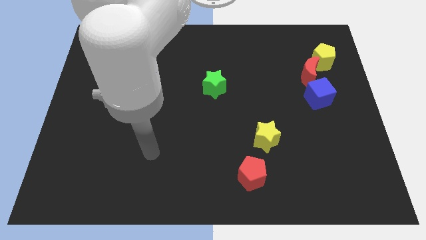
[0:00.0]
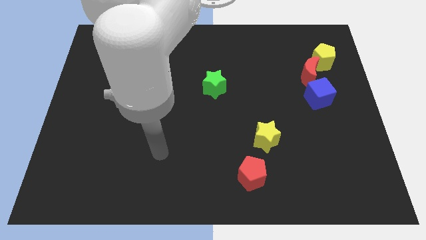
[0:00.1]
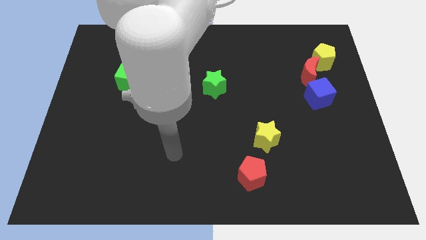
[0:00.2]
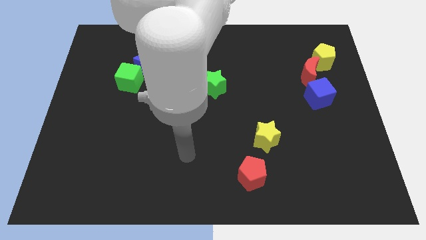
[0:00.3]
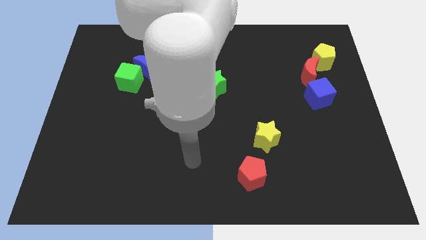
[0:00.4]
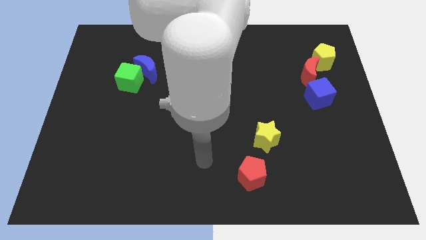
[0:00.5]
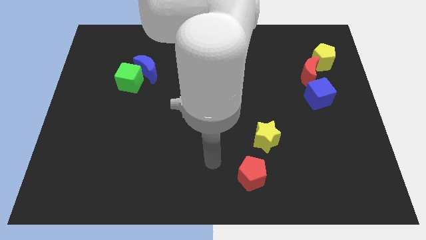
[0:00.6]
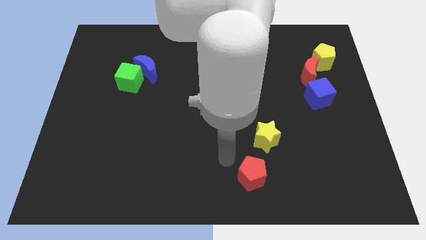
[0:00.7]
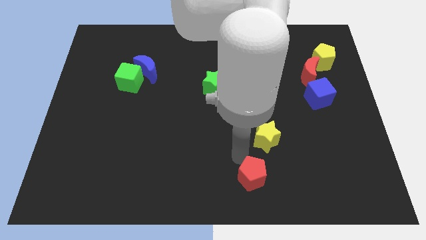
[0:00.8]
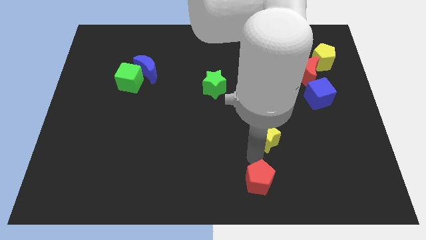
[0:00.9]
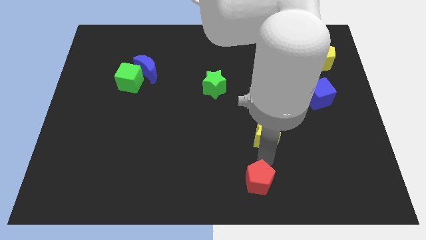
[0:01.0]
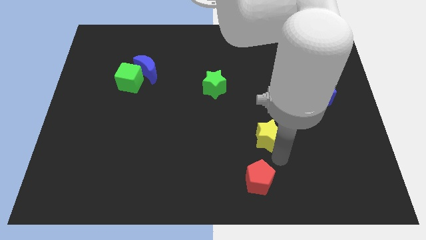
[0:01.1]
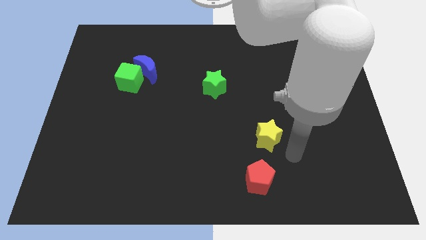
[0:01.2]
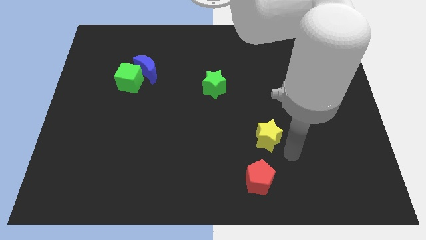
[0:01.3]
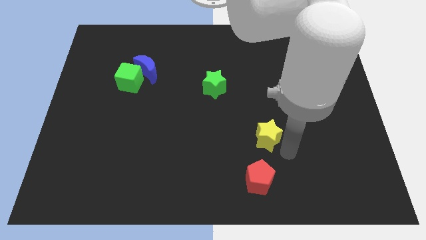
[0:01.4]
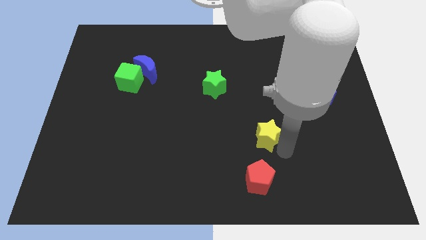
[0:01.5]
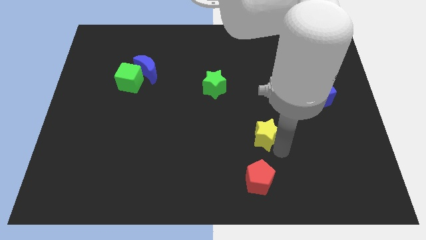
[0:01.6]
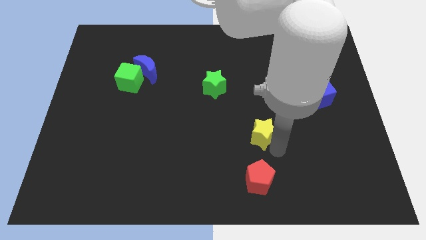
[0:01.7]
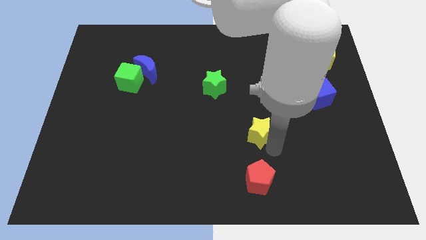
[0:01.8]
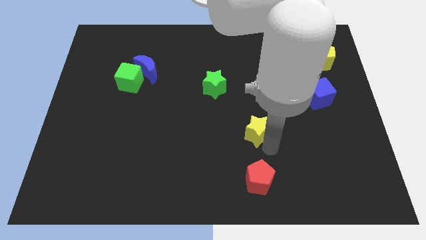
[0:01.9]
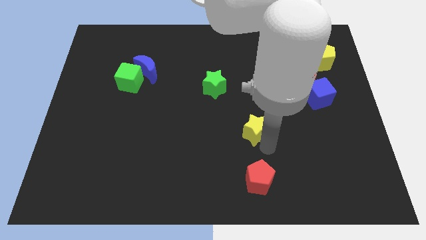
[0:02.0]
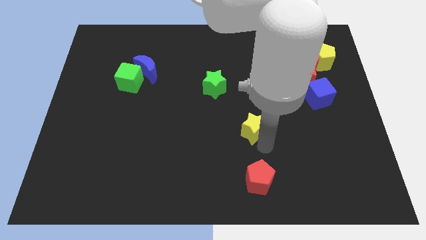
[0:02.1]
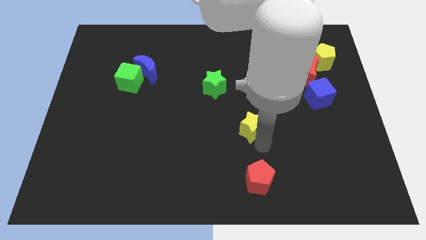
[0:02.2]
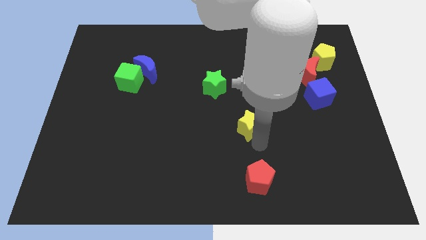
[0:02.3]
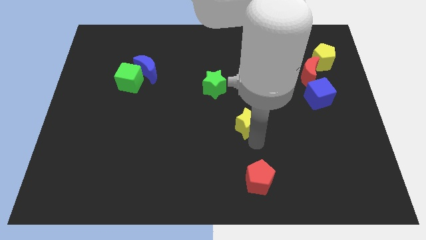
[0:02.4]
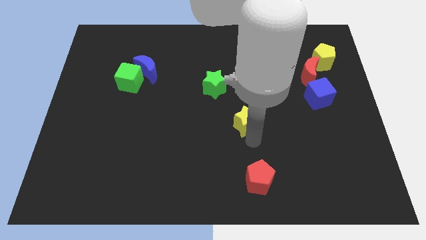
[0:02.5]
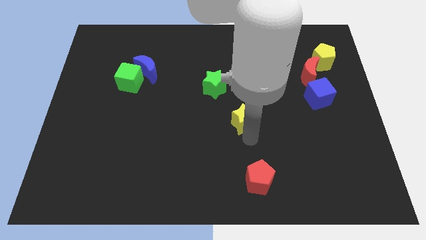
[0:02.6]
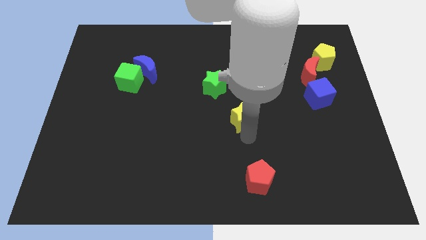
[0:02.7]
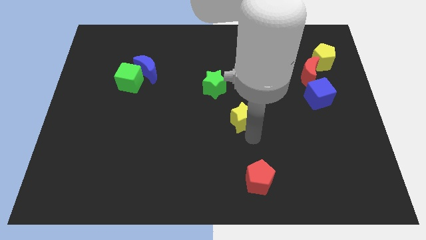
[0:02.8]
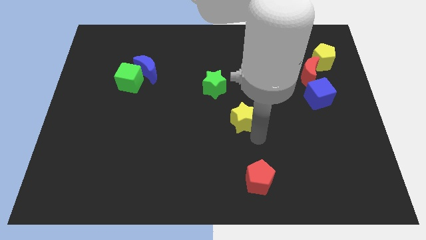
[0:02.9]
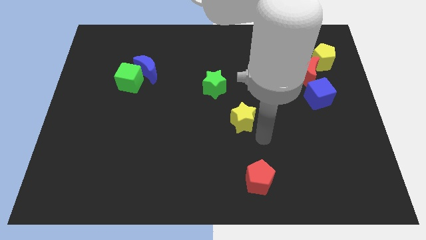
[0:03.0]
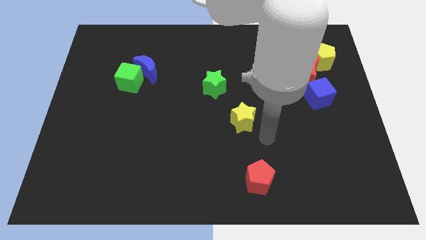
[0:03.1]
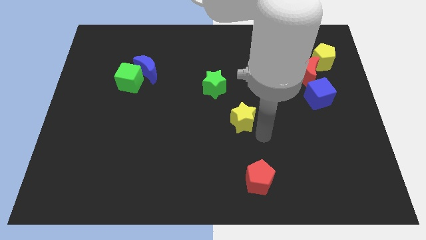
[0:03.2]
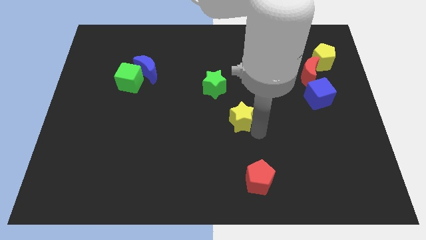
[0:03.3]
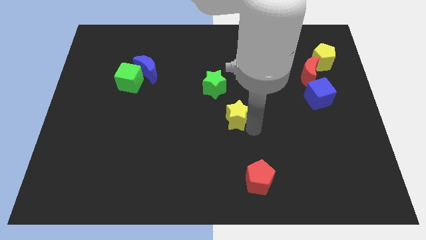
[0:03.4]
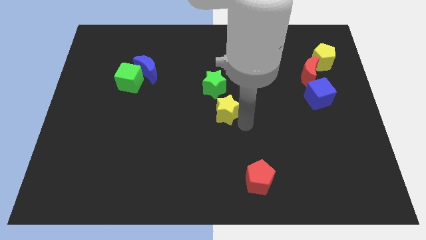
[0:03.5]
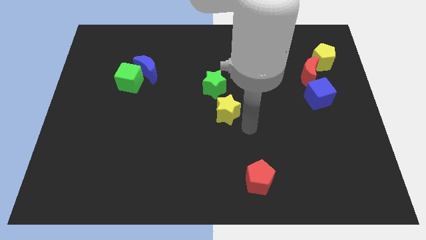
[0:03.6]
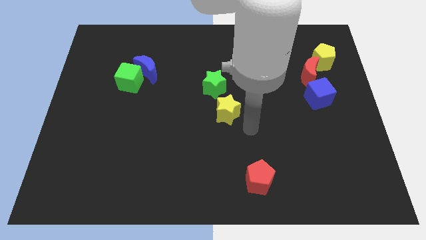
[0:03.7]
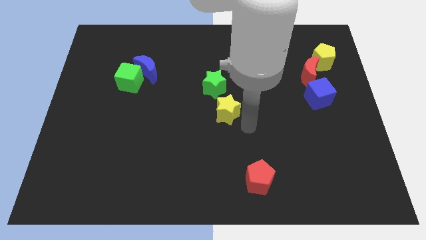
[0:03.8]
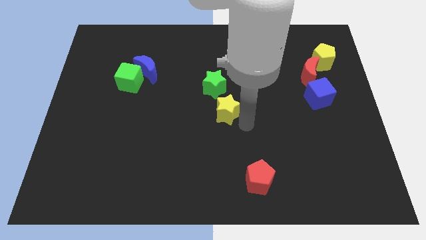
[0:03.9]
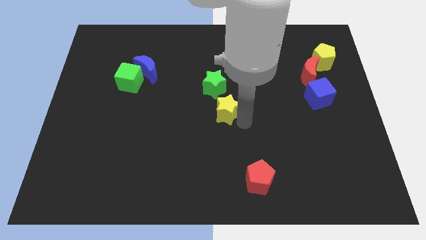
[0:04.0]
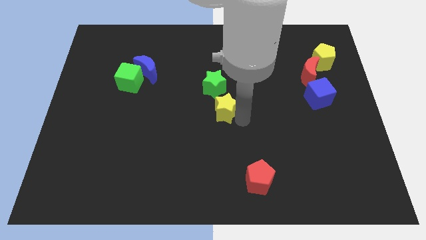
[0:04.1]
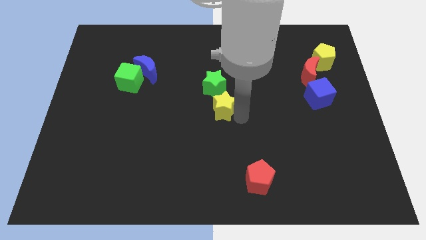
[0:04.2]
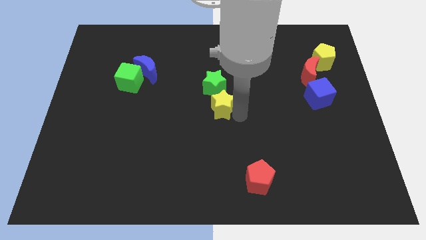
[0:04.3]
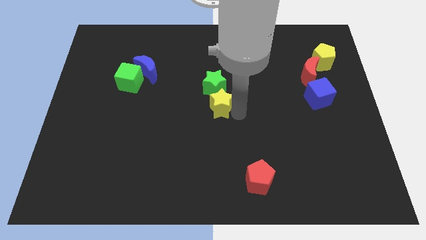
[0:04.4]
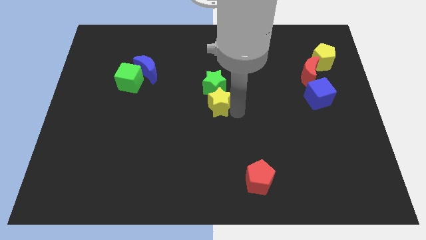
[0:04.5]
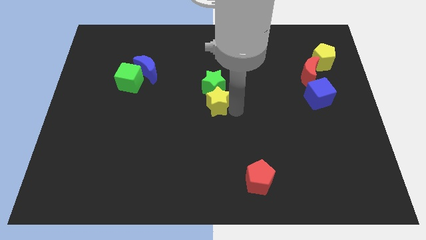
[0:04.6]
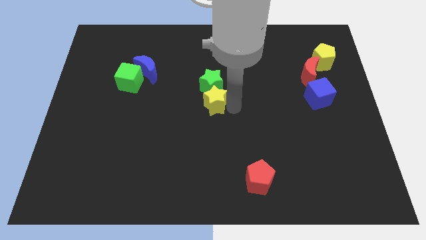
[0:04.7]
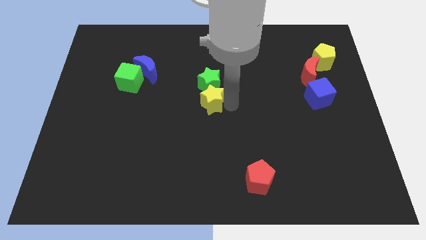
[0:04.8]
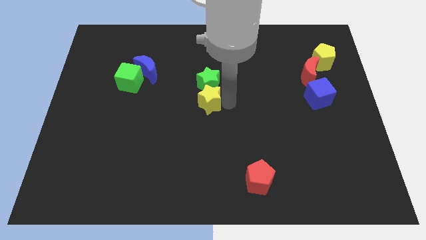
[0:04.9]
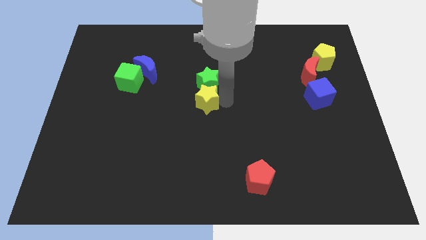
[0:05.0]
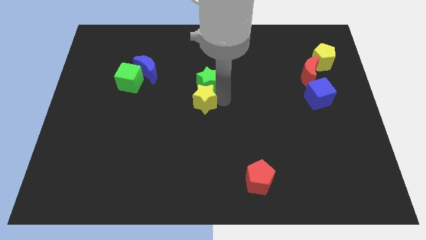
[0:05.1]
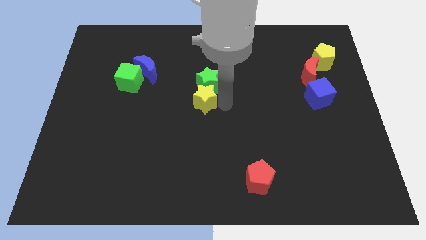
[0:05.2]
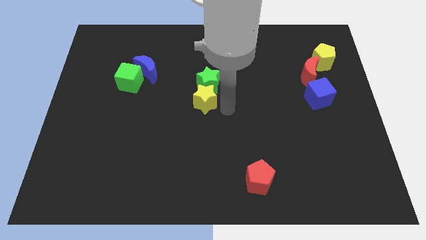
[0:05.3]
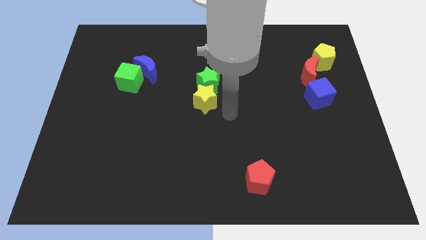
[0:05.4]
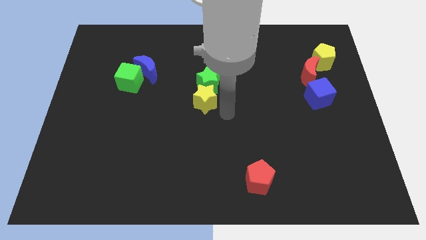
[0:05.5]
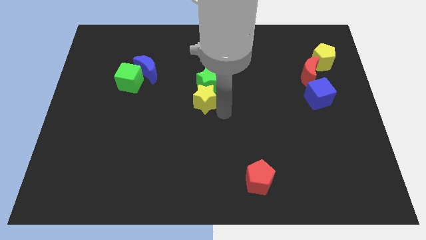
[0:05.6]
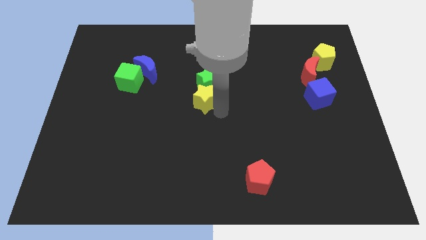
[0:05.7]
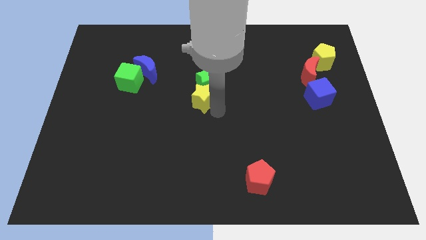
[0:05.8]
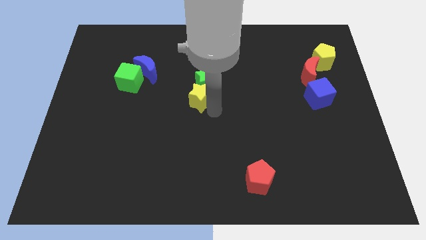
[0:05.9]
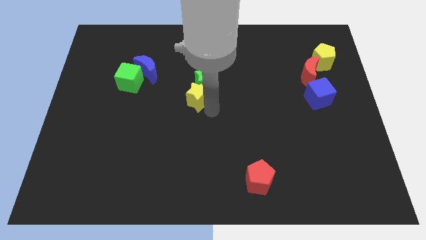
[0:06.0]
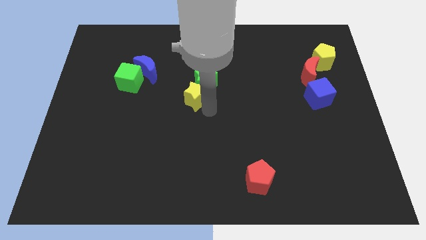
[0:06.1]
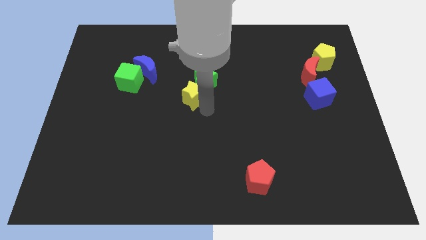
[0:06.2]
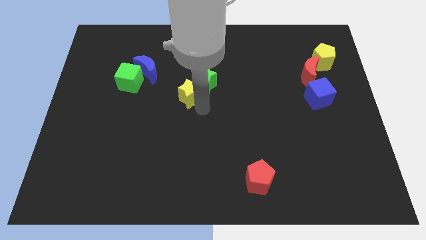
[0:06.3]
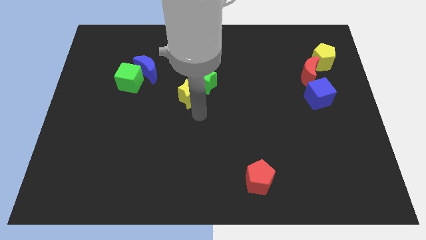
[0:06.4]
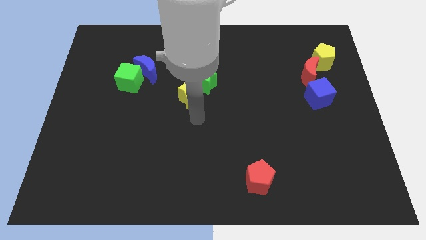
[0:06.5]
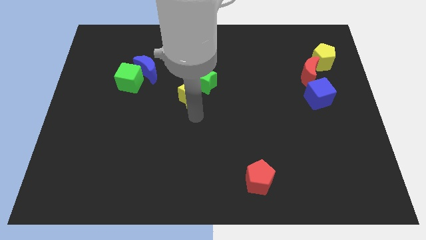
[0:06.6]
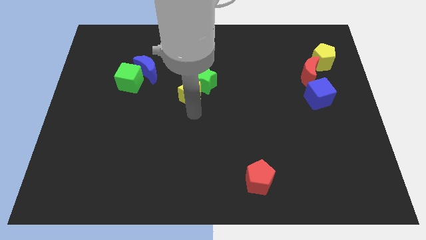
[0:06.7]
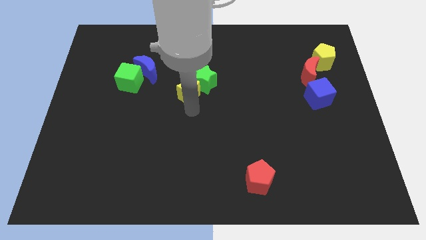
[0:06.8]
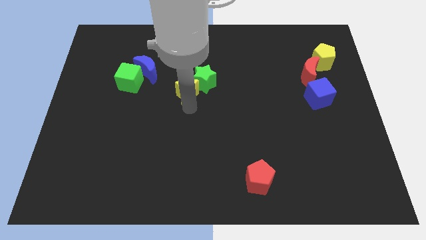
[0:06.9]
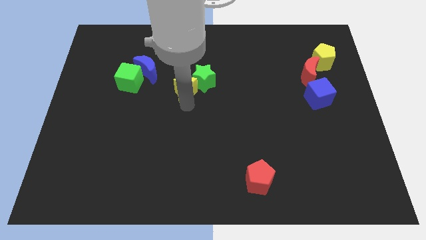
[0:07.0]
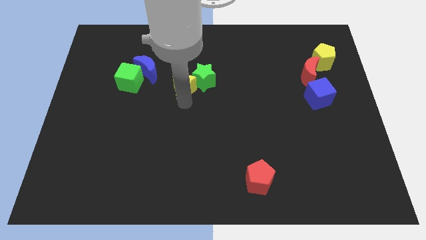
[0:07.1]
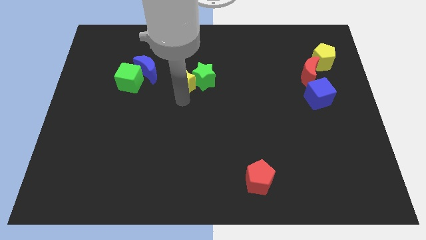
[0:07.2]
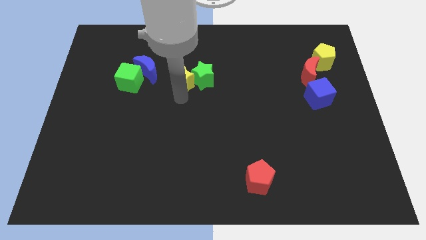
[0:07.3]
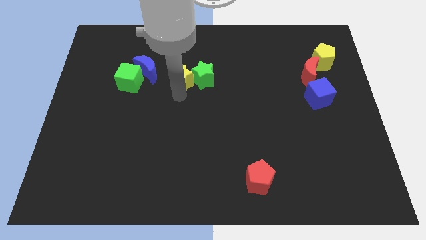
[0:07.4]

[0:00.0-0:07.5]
put the yellow star diagonally up and to the left of the green star

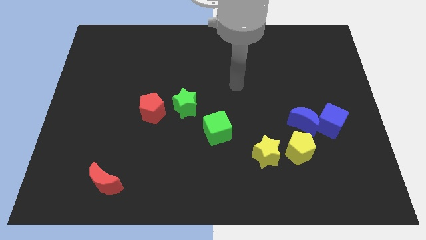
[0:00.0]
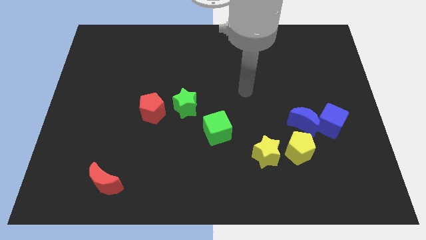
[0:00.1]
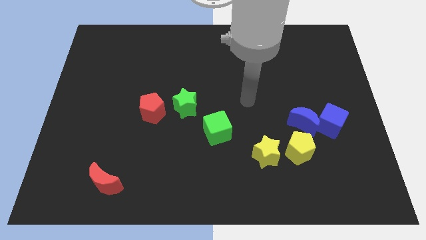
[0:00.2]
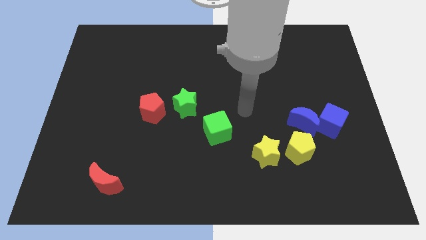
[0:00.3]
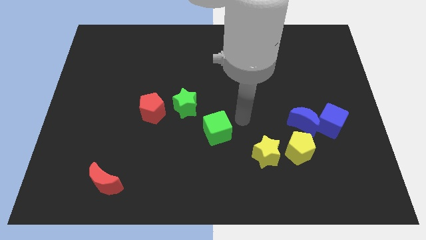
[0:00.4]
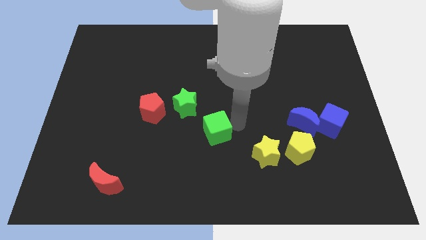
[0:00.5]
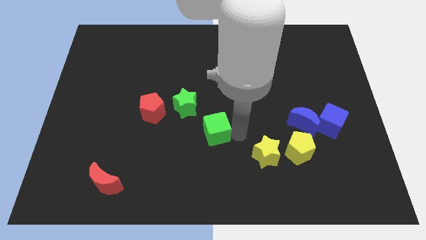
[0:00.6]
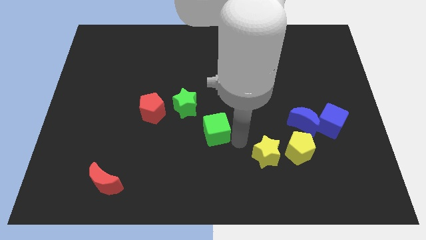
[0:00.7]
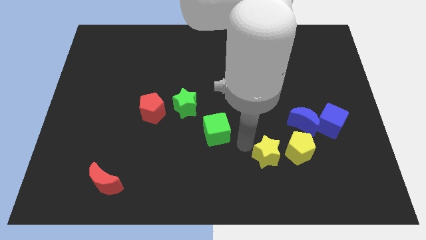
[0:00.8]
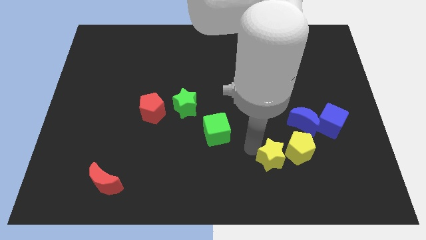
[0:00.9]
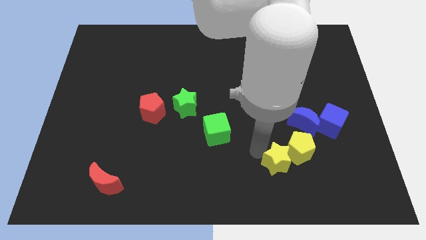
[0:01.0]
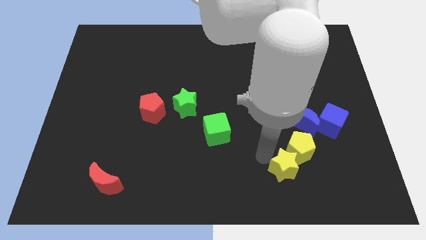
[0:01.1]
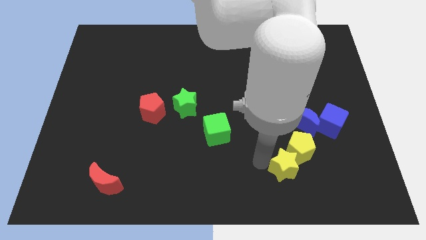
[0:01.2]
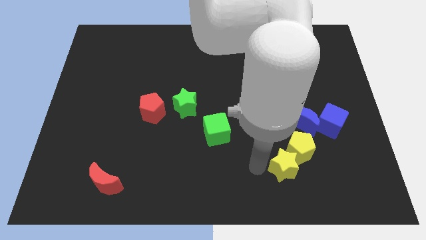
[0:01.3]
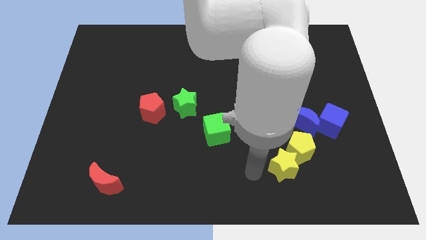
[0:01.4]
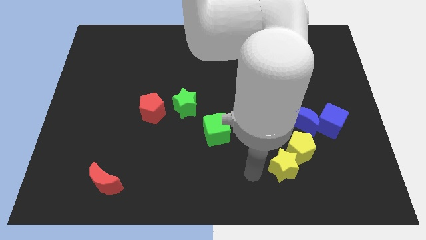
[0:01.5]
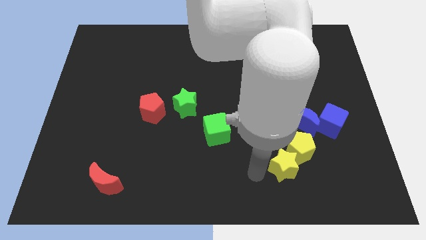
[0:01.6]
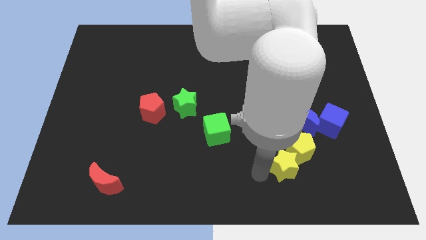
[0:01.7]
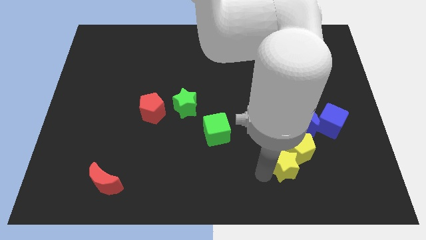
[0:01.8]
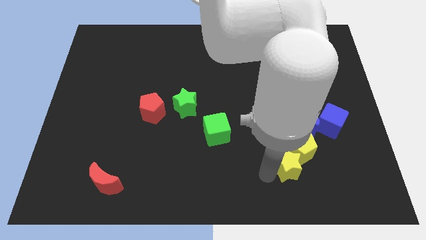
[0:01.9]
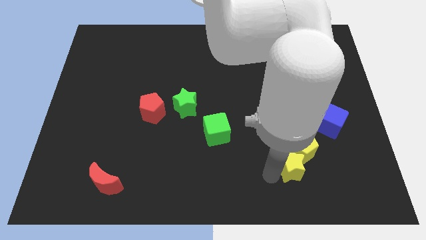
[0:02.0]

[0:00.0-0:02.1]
put the yellow star to the bottom side of the blue moon
